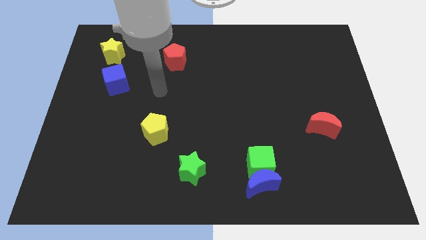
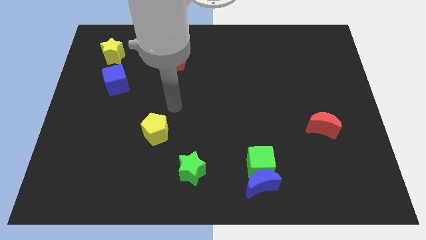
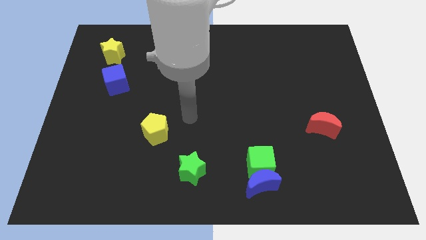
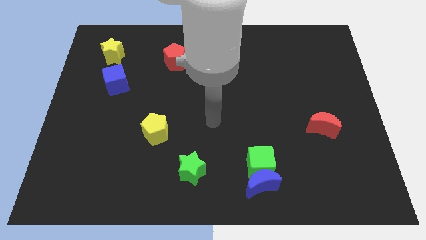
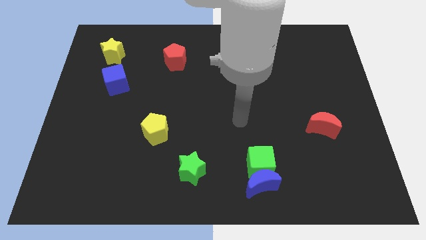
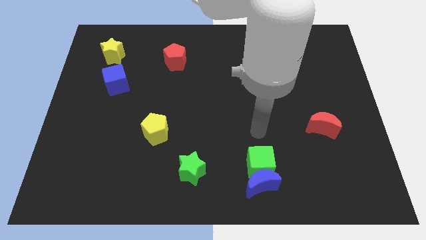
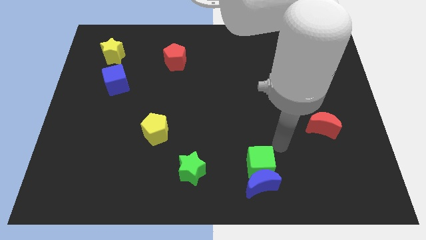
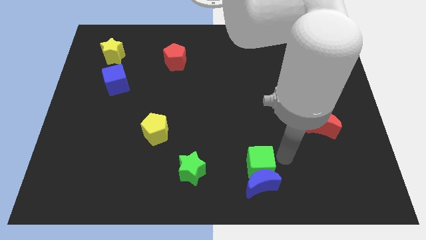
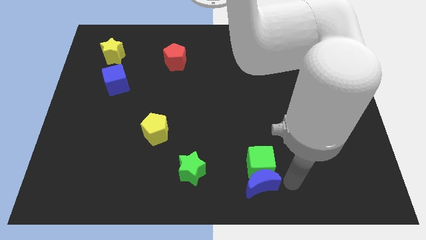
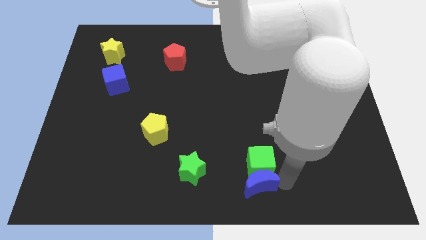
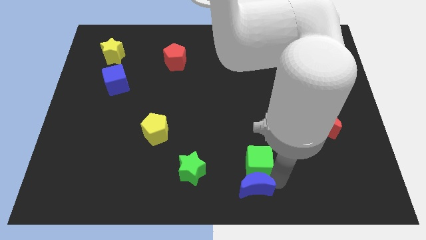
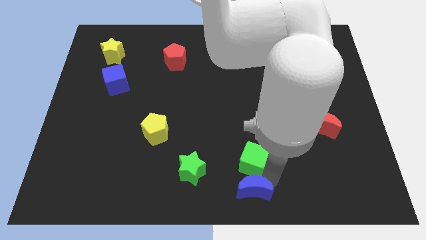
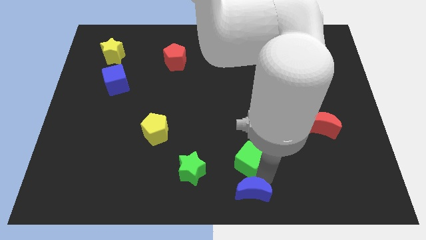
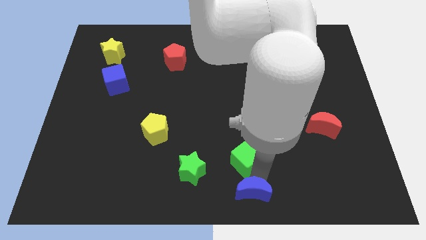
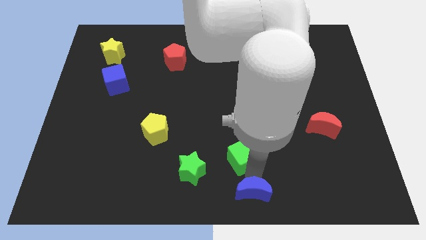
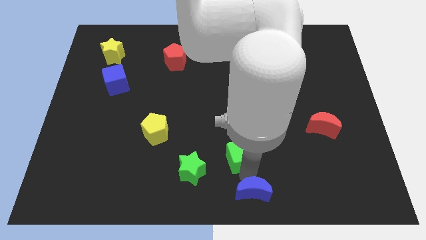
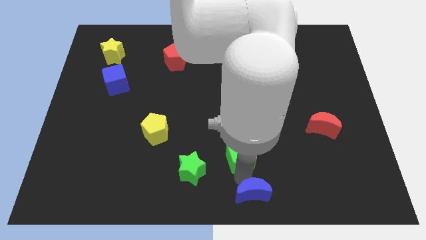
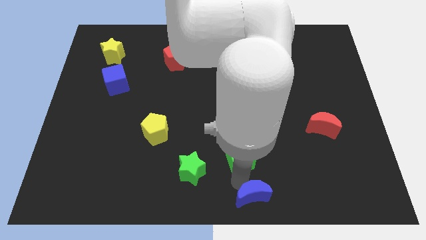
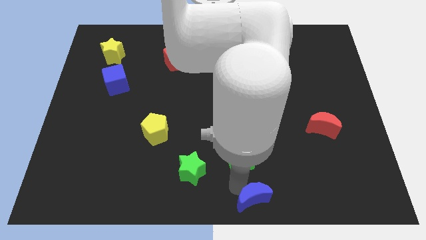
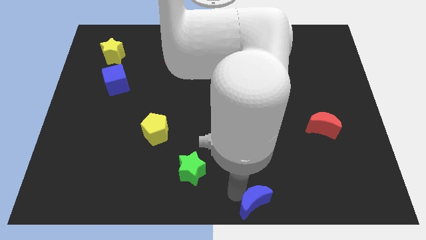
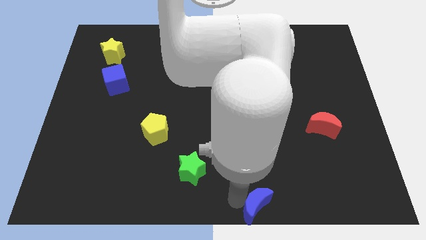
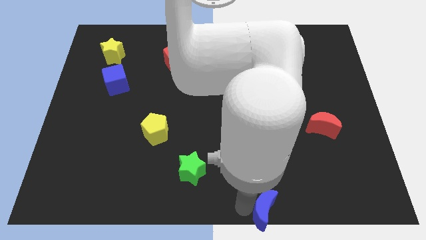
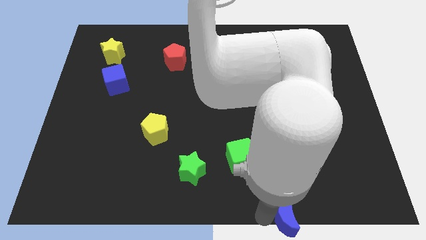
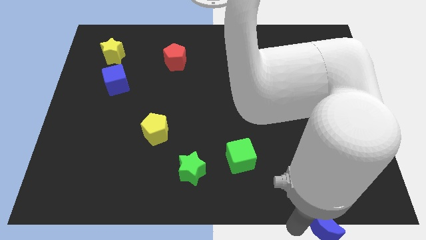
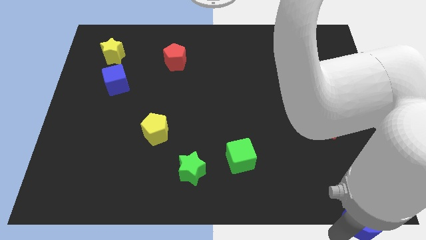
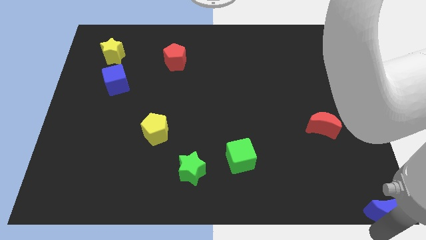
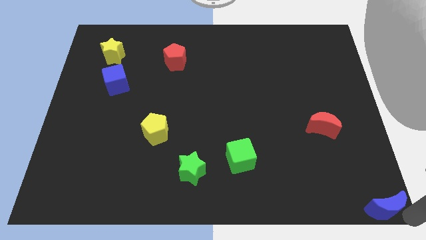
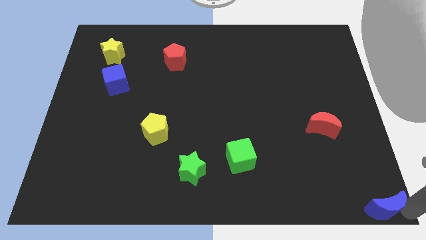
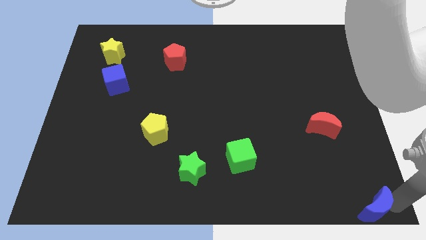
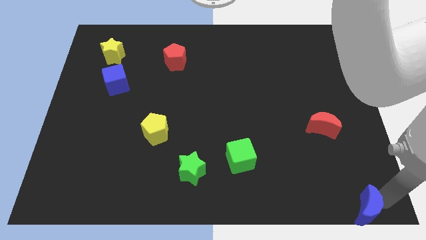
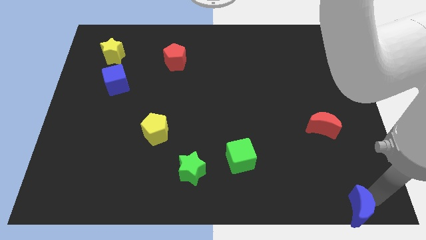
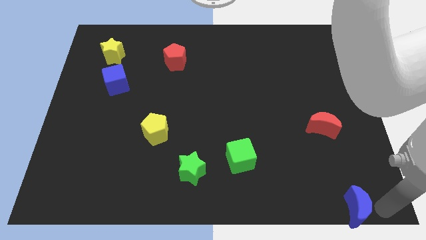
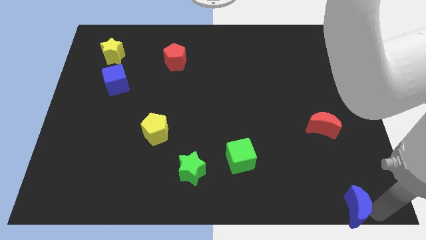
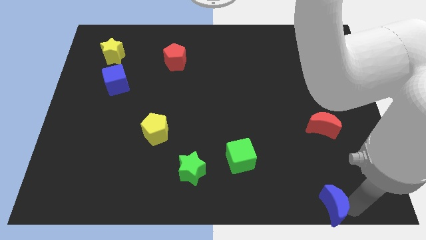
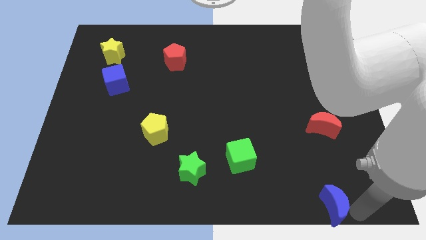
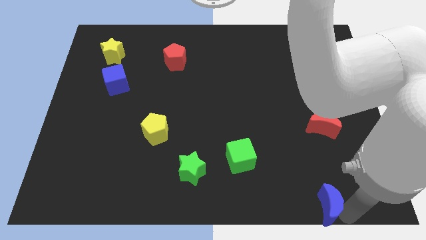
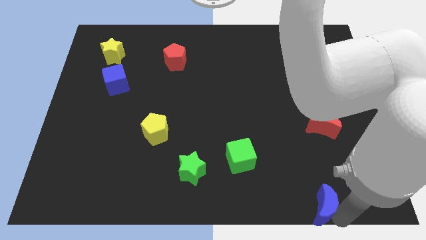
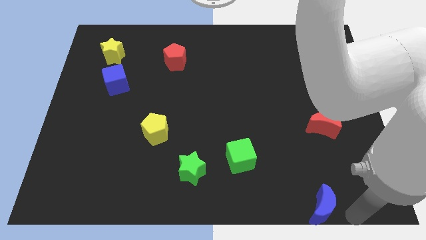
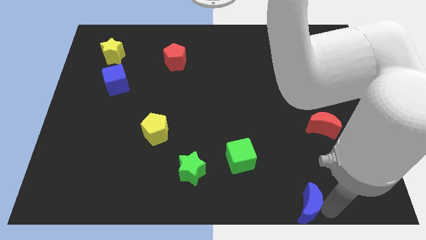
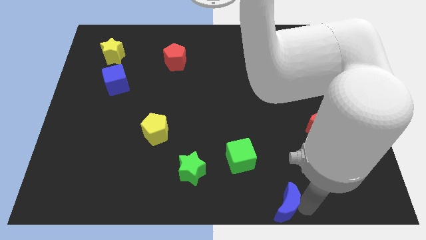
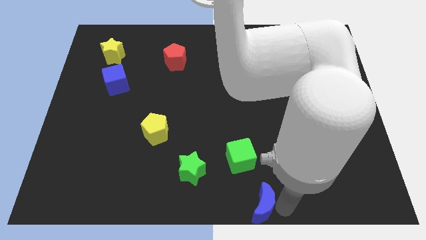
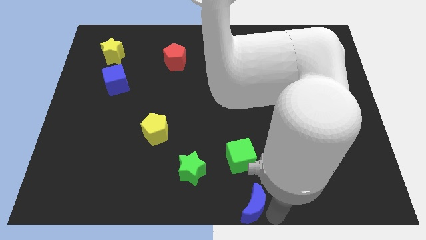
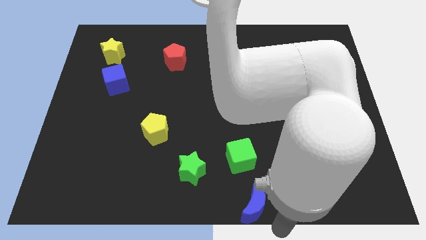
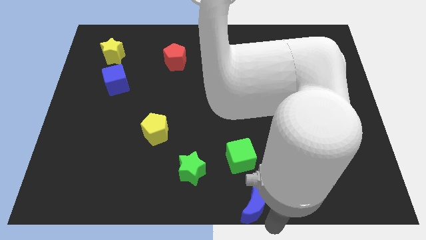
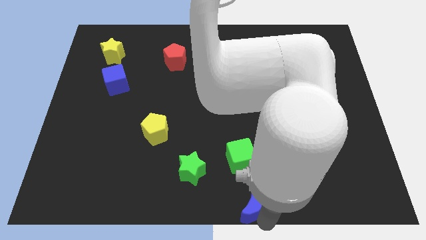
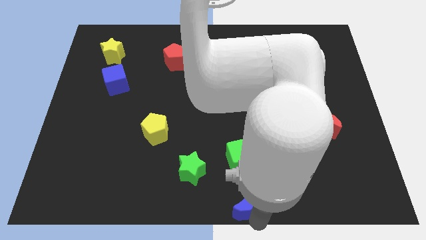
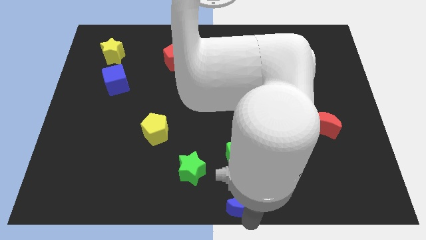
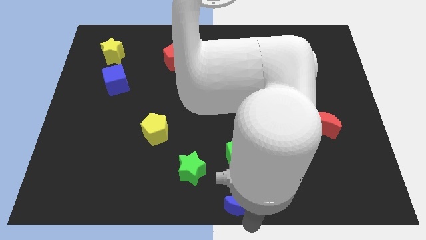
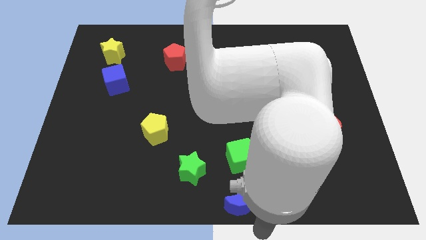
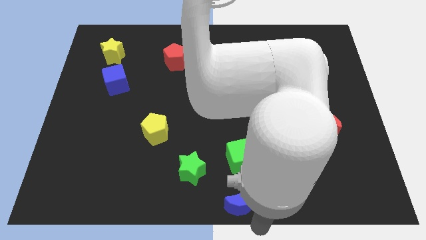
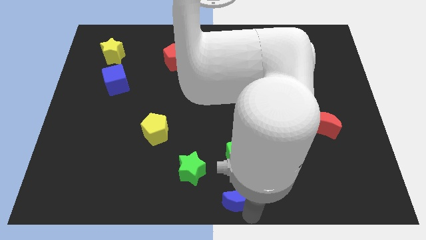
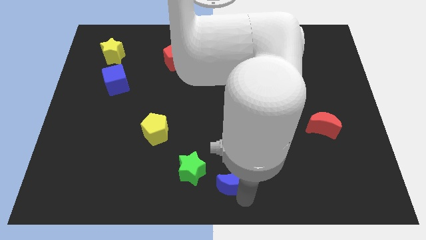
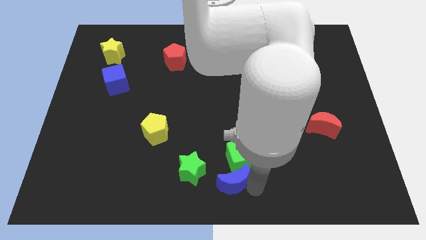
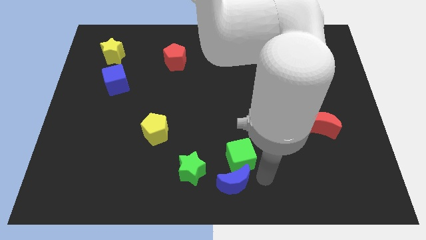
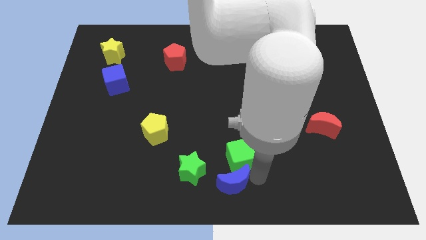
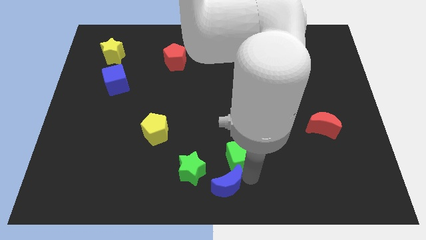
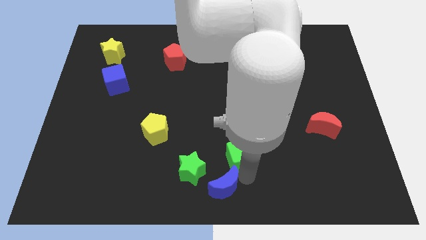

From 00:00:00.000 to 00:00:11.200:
move the blue moon slightly to the left

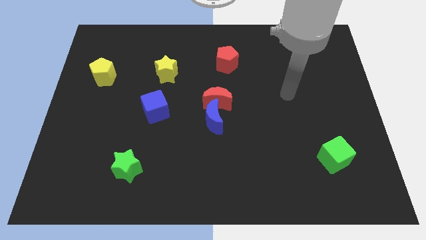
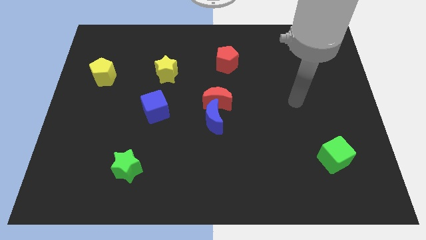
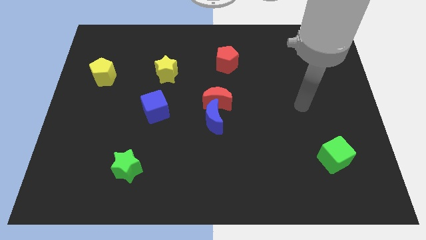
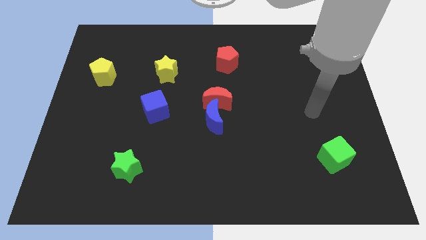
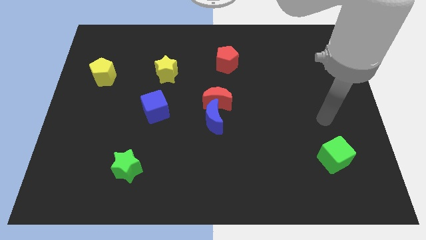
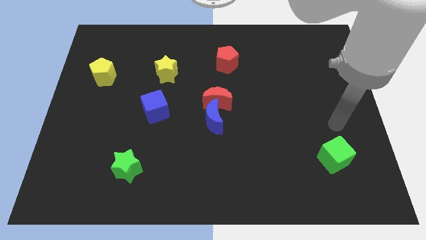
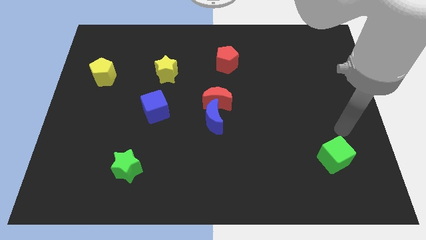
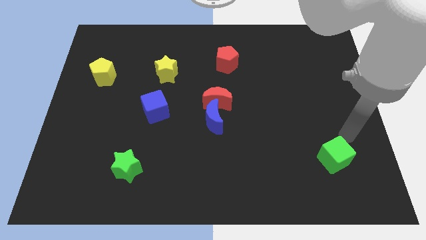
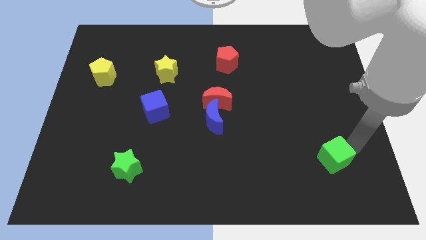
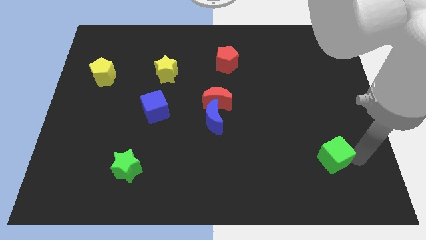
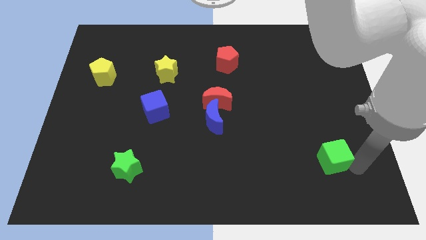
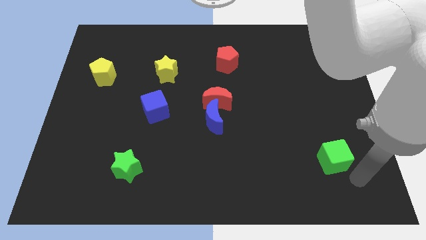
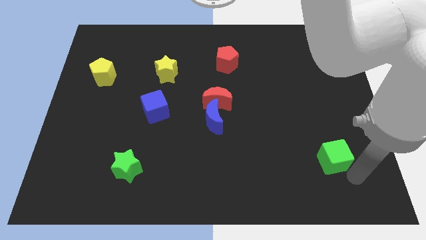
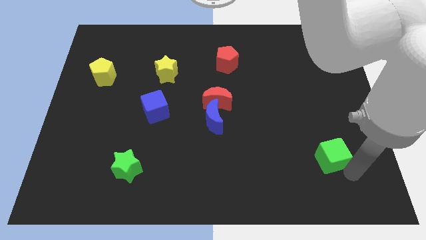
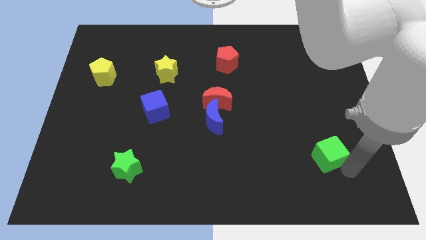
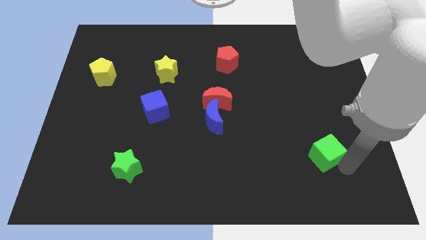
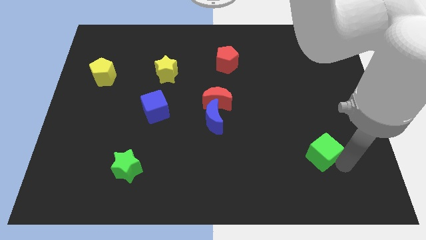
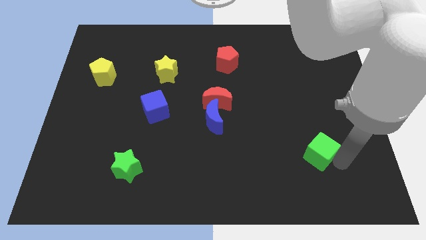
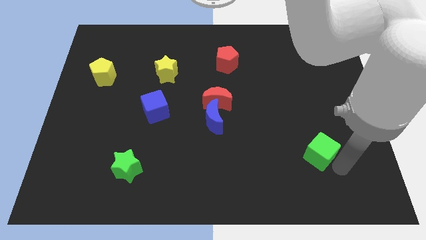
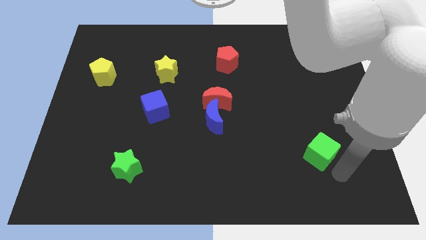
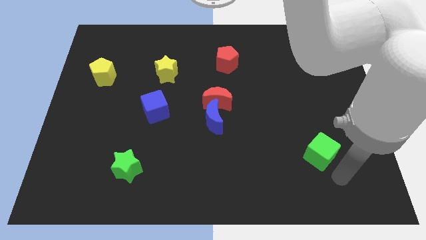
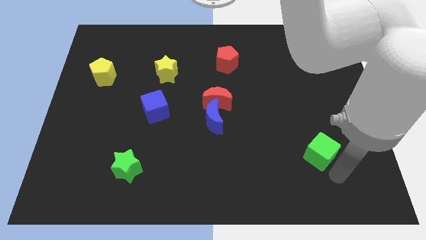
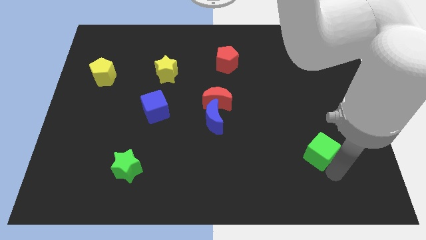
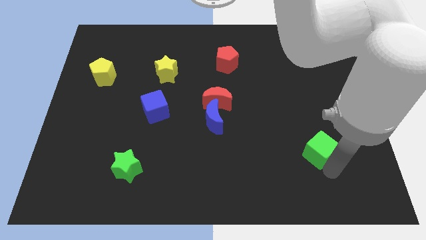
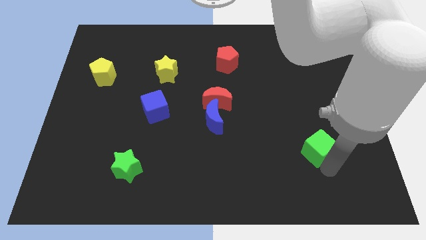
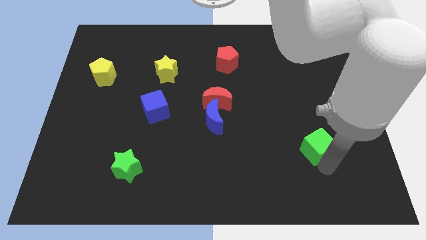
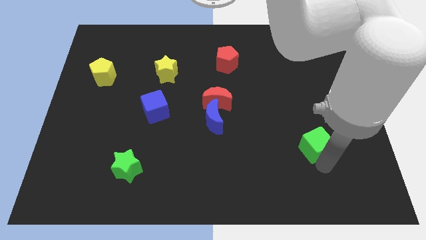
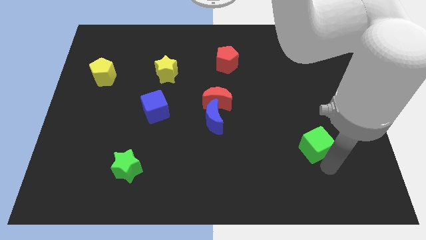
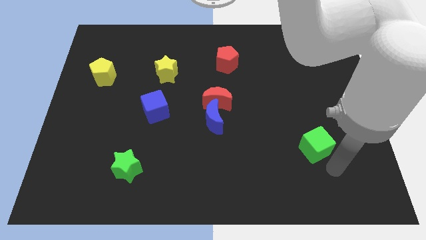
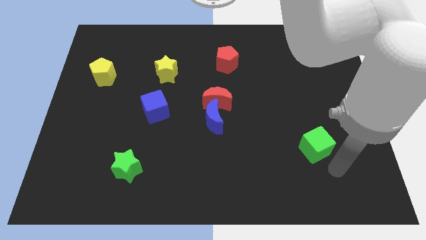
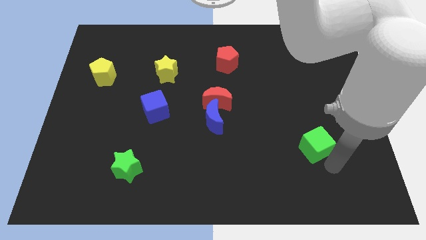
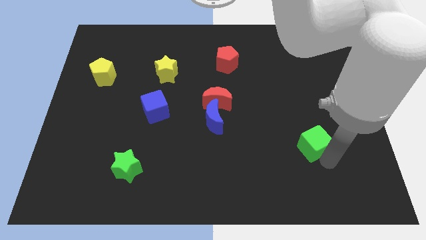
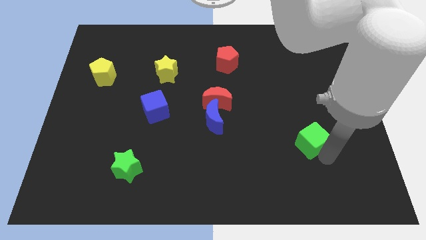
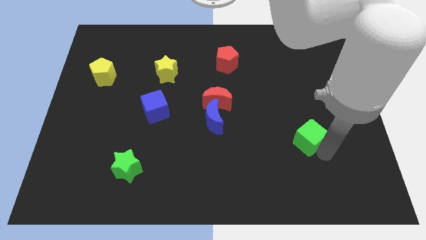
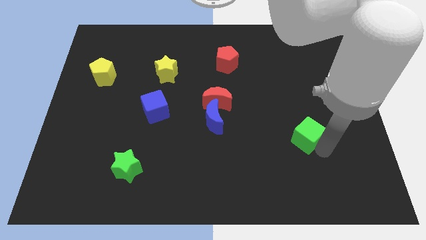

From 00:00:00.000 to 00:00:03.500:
slightly move the green cube diagonally up and to the left
